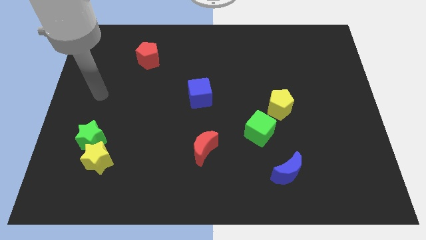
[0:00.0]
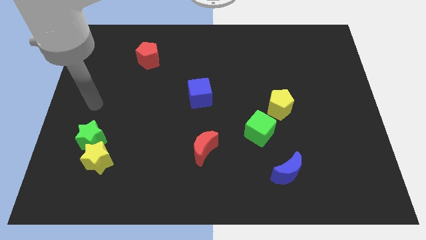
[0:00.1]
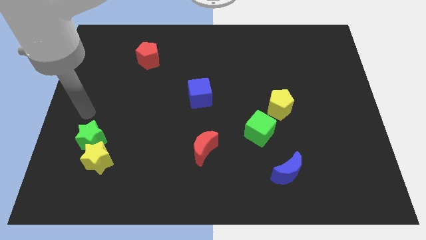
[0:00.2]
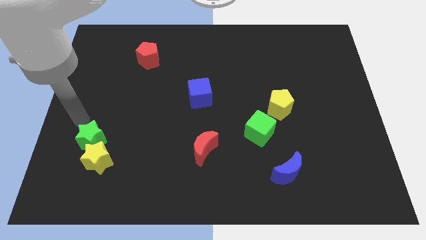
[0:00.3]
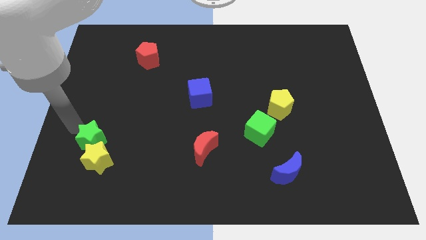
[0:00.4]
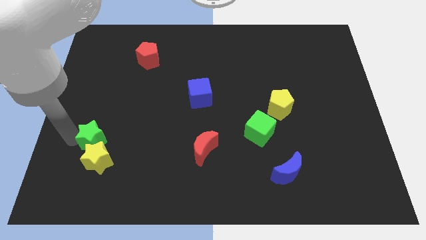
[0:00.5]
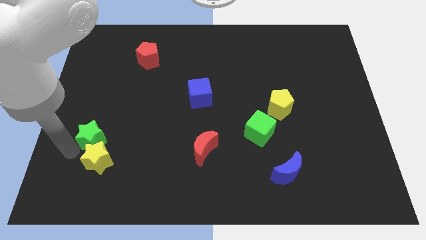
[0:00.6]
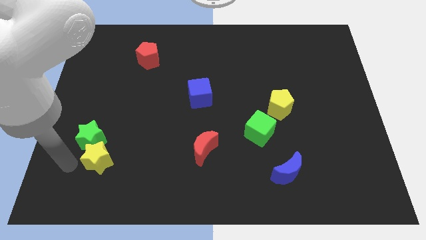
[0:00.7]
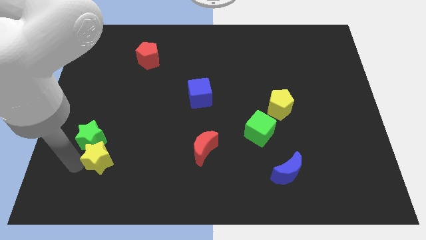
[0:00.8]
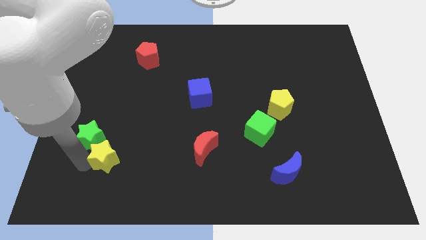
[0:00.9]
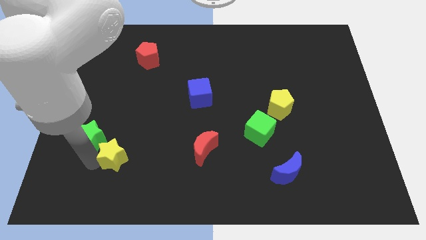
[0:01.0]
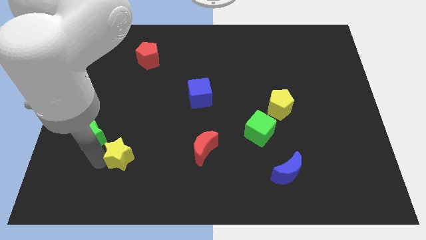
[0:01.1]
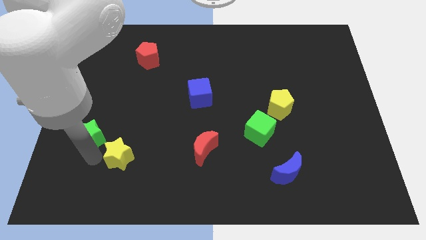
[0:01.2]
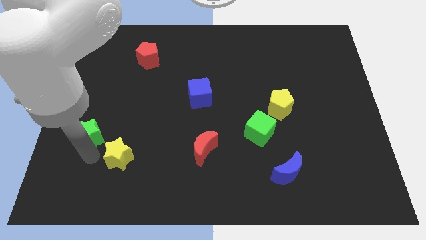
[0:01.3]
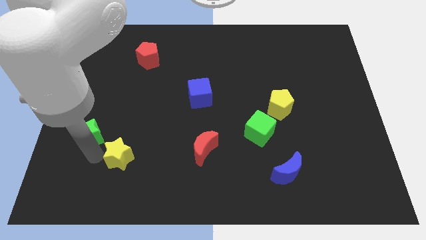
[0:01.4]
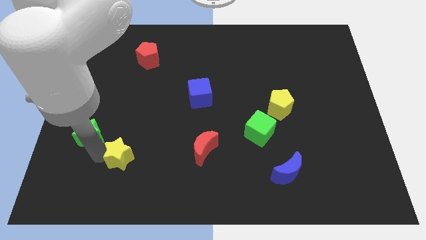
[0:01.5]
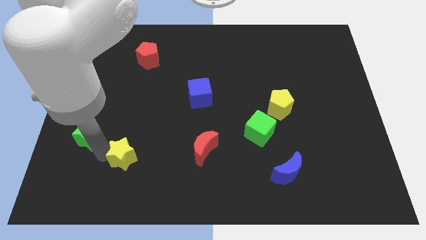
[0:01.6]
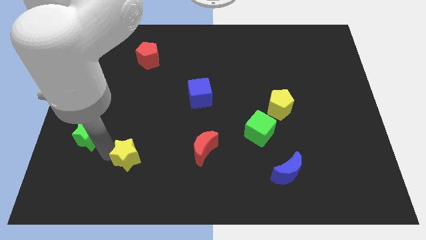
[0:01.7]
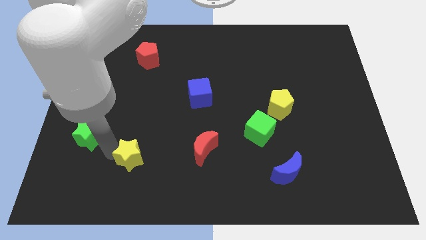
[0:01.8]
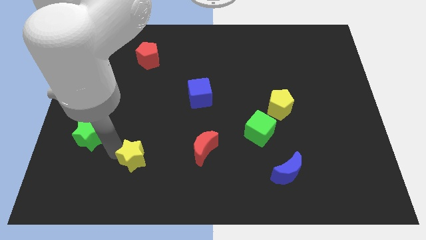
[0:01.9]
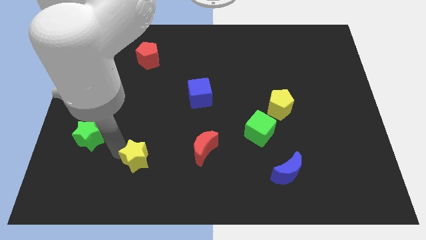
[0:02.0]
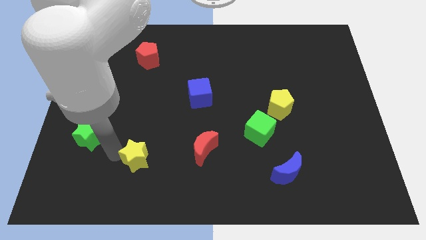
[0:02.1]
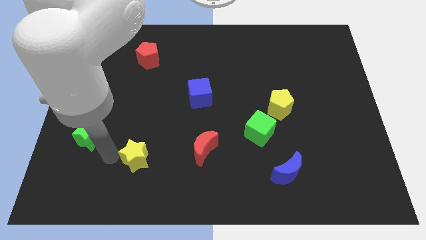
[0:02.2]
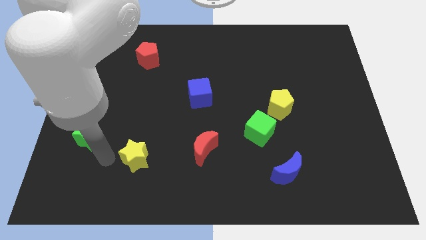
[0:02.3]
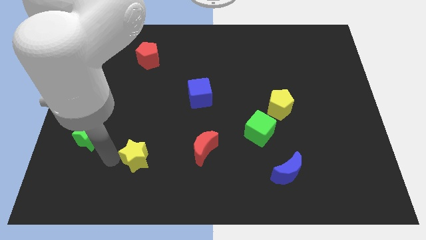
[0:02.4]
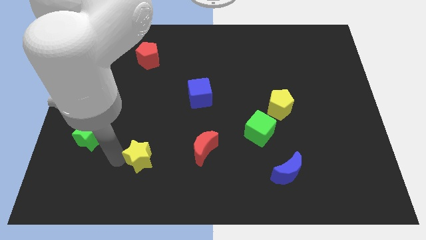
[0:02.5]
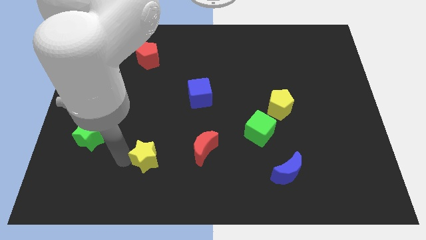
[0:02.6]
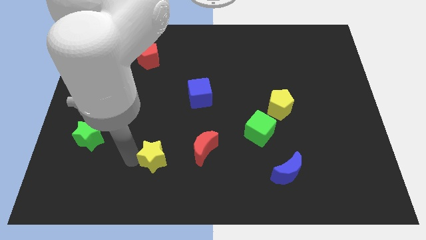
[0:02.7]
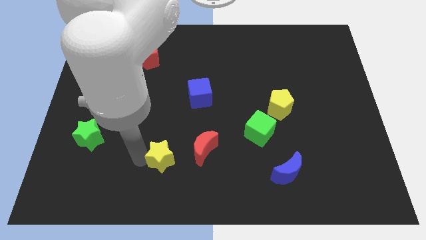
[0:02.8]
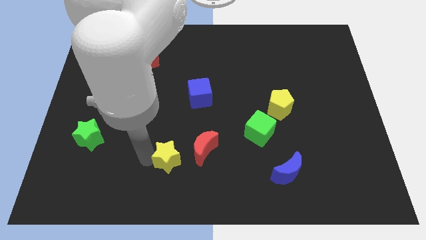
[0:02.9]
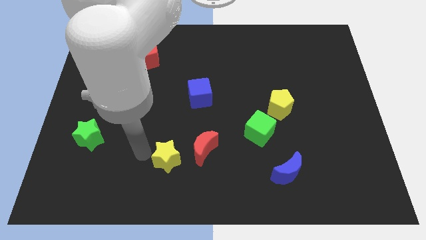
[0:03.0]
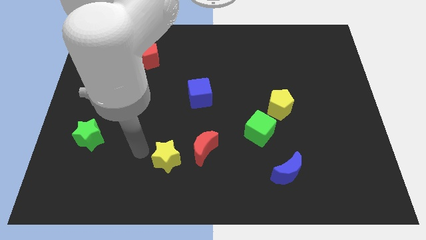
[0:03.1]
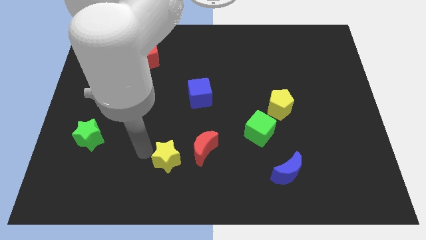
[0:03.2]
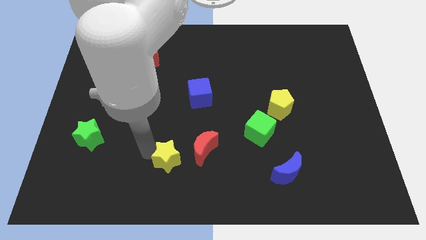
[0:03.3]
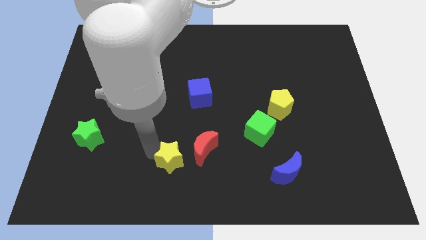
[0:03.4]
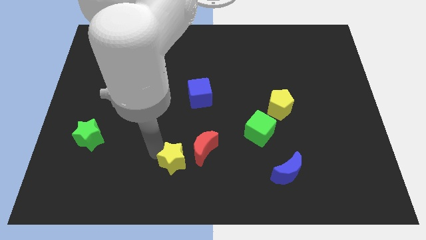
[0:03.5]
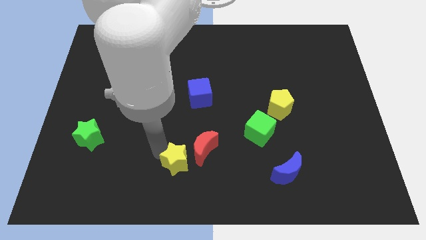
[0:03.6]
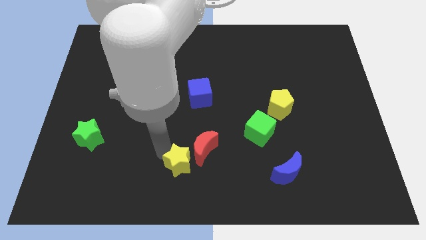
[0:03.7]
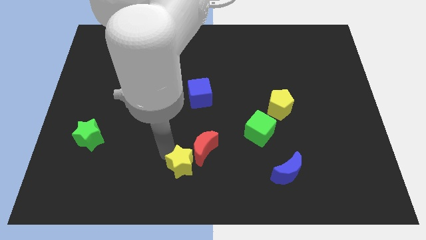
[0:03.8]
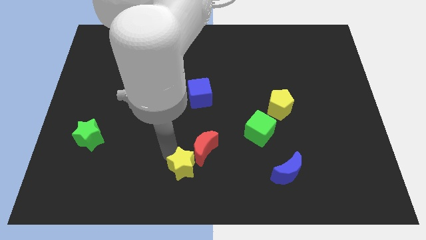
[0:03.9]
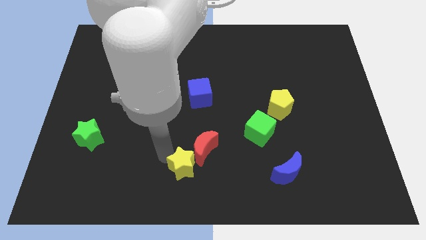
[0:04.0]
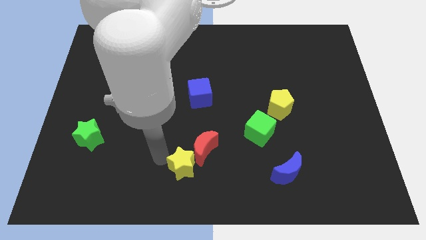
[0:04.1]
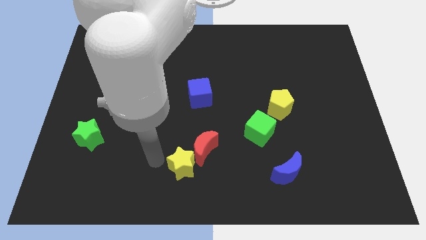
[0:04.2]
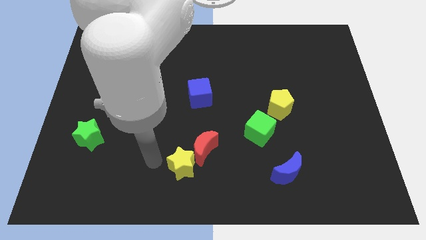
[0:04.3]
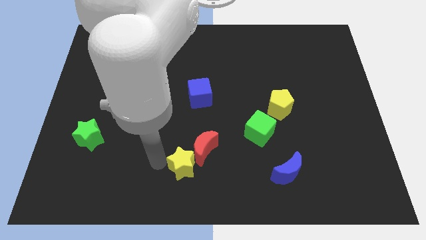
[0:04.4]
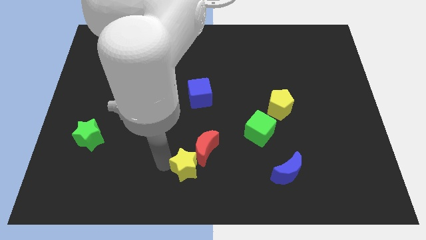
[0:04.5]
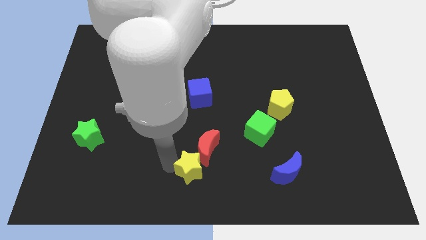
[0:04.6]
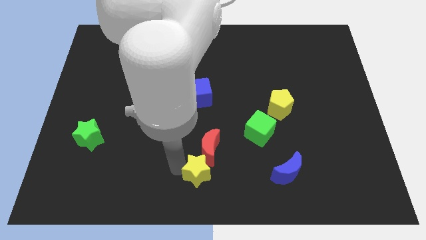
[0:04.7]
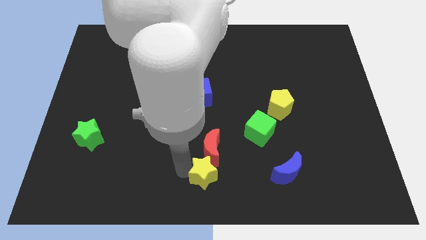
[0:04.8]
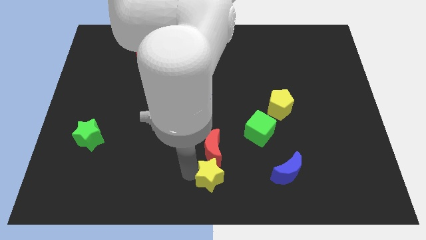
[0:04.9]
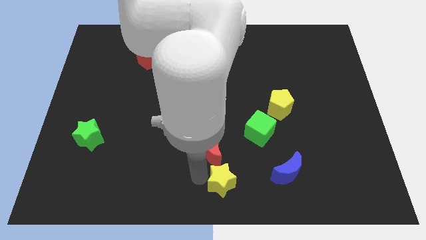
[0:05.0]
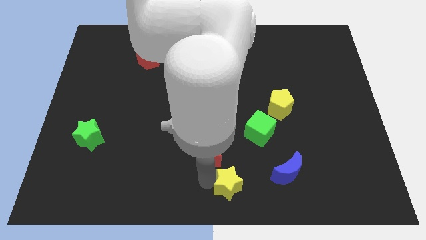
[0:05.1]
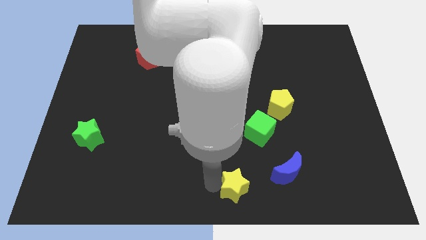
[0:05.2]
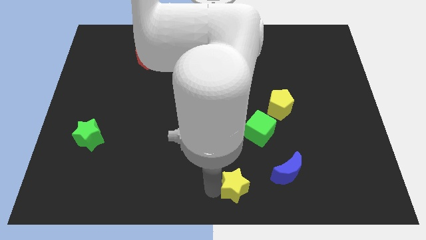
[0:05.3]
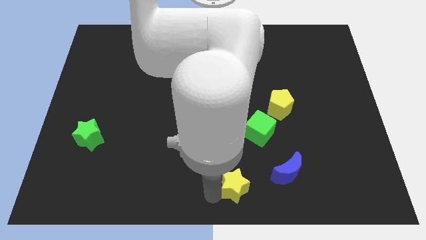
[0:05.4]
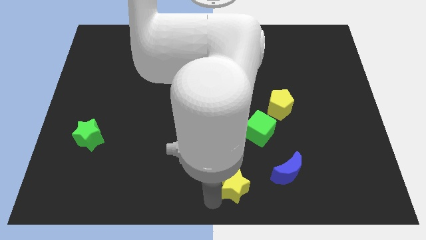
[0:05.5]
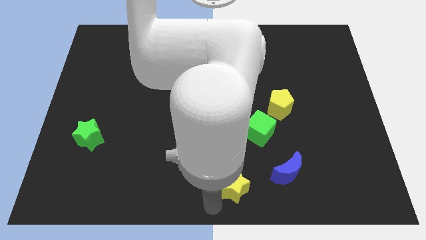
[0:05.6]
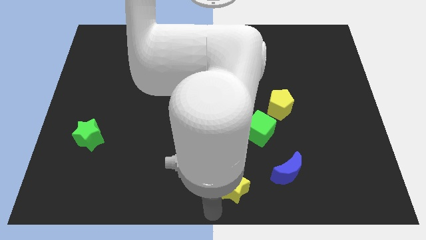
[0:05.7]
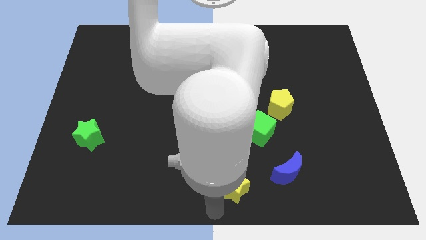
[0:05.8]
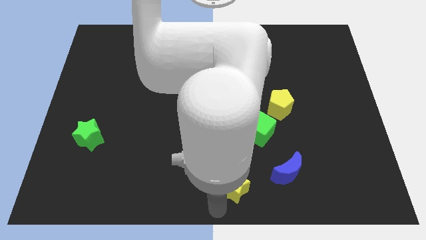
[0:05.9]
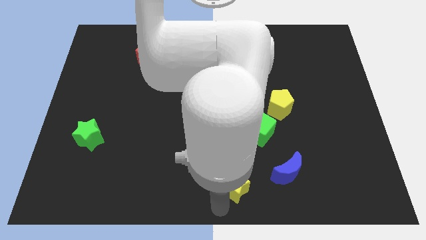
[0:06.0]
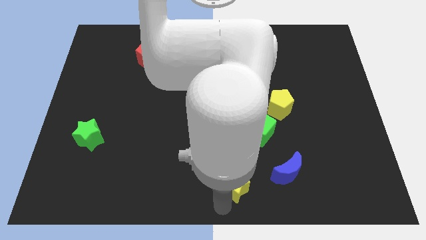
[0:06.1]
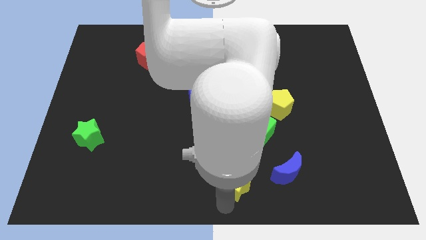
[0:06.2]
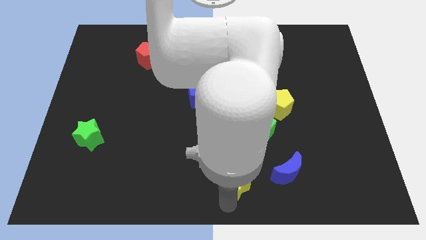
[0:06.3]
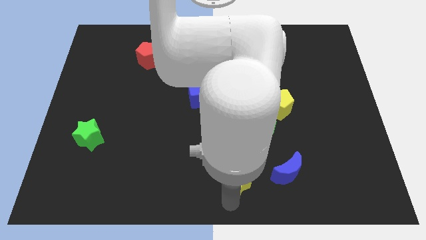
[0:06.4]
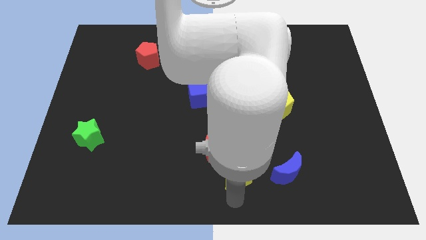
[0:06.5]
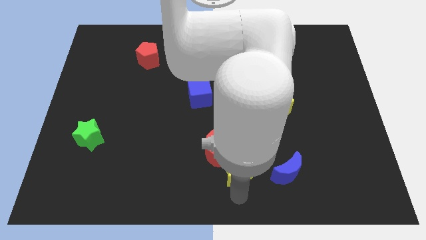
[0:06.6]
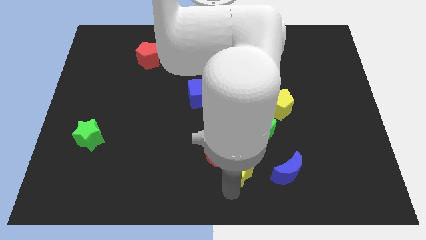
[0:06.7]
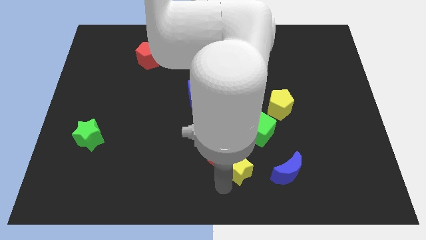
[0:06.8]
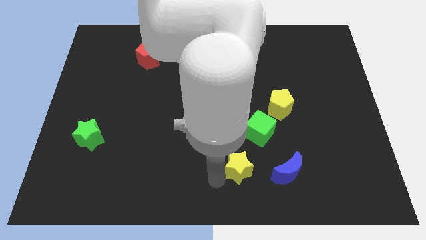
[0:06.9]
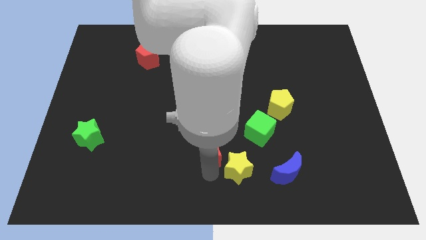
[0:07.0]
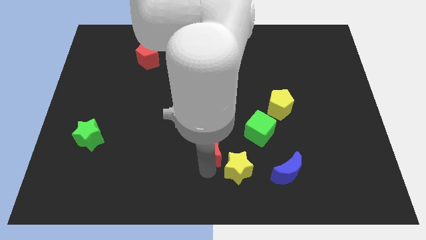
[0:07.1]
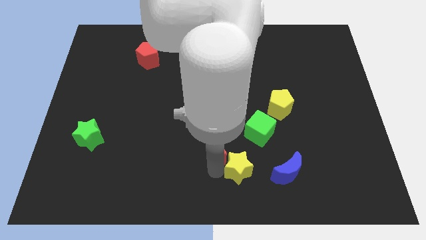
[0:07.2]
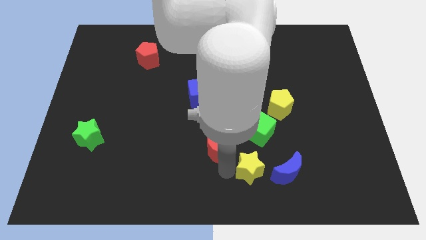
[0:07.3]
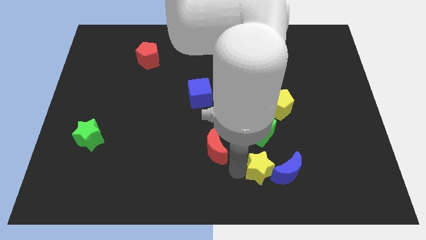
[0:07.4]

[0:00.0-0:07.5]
slide the yellow star towards the blue moon
